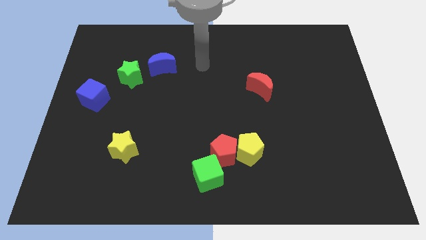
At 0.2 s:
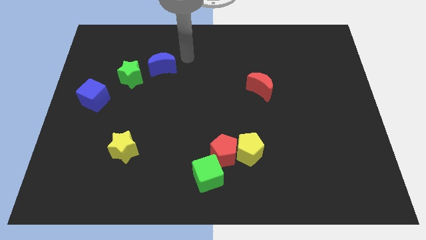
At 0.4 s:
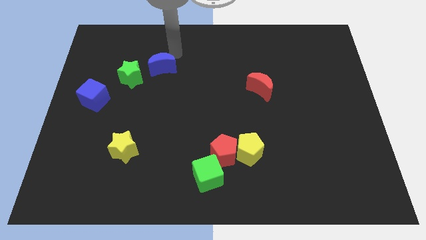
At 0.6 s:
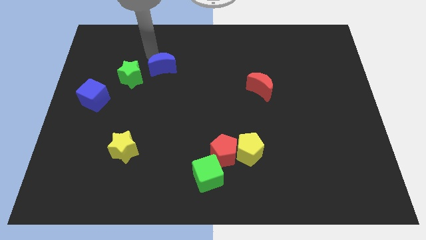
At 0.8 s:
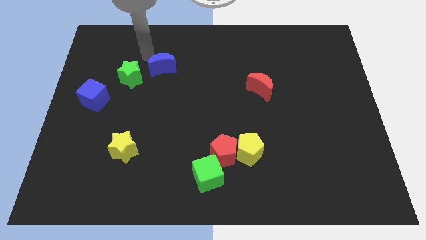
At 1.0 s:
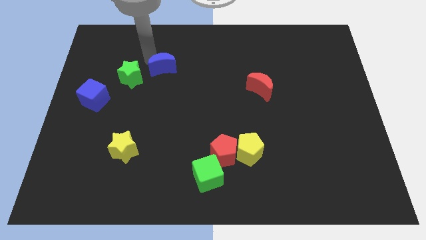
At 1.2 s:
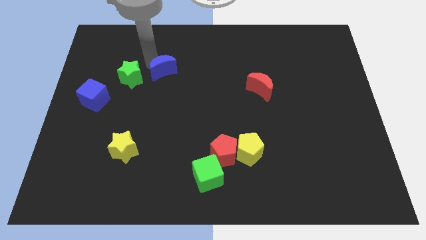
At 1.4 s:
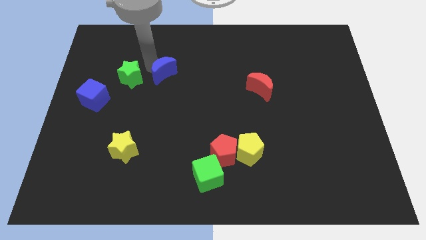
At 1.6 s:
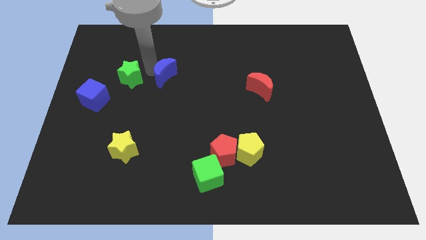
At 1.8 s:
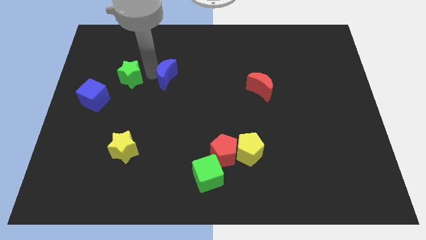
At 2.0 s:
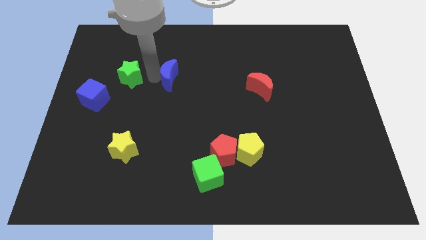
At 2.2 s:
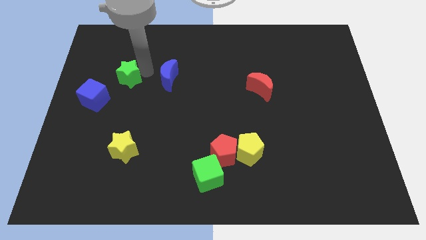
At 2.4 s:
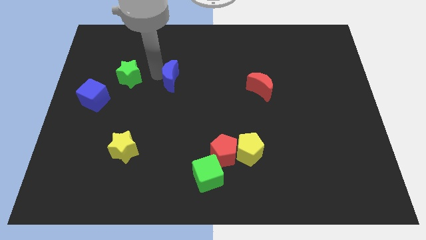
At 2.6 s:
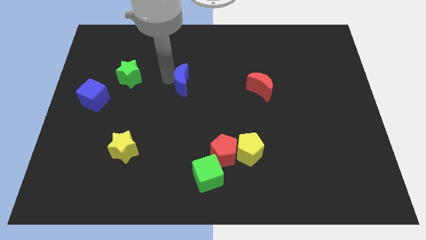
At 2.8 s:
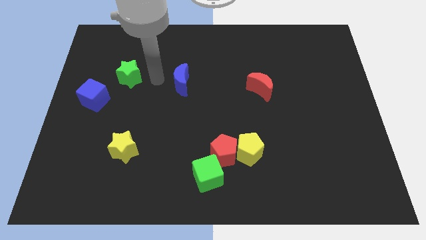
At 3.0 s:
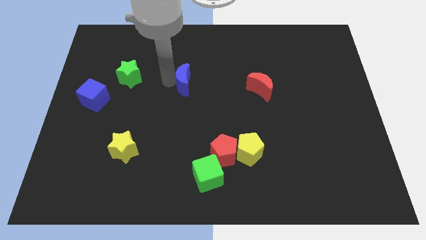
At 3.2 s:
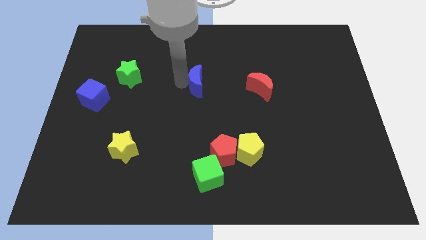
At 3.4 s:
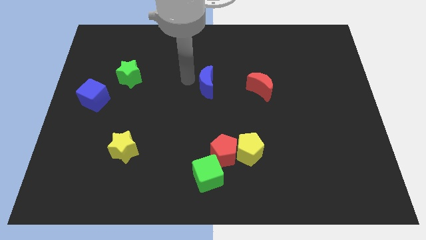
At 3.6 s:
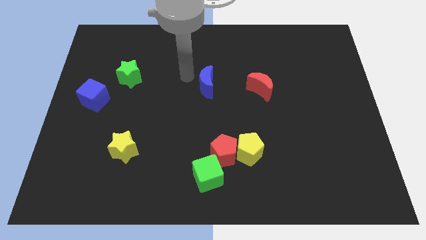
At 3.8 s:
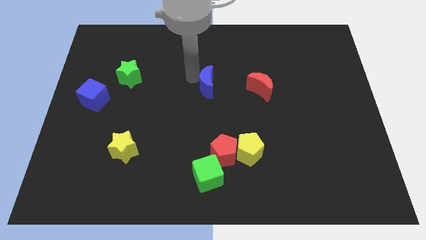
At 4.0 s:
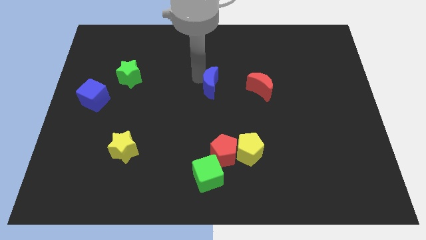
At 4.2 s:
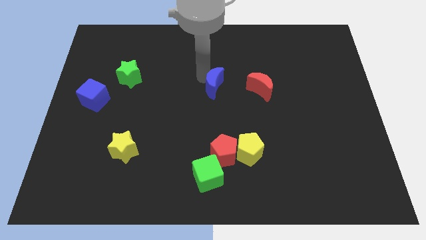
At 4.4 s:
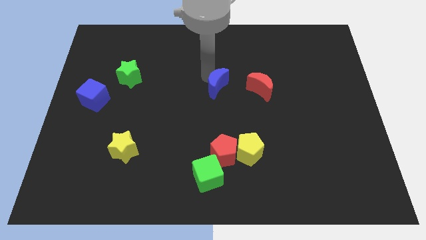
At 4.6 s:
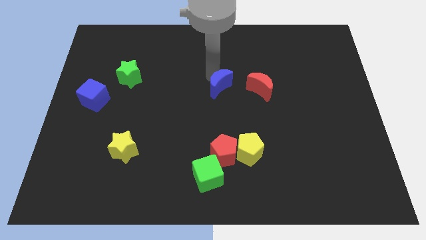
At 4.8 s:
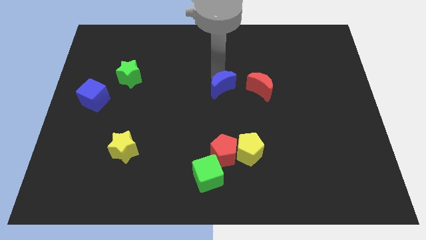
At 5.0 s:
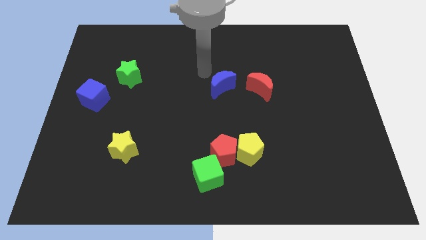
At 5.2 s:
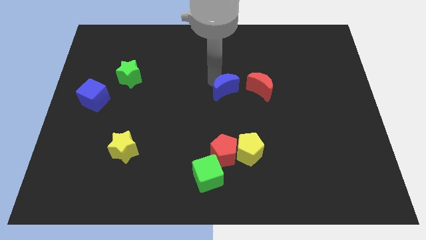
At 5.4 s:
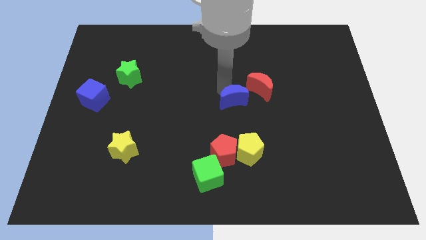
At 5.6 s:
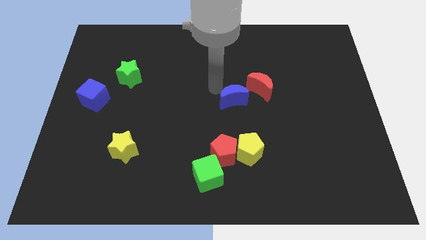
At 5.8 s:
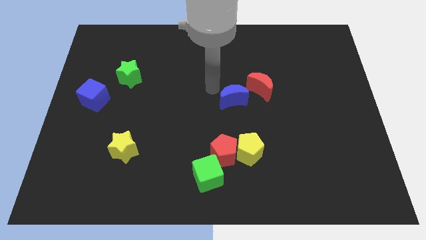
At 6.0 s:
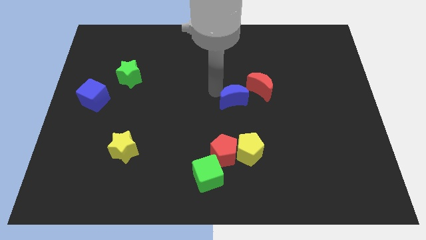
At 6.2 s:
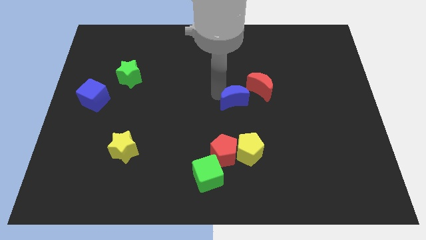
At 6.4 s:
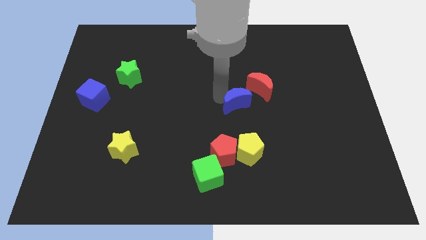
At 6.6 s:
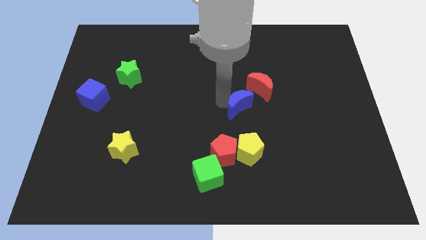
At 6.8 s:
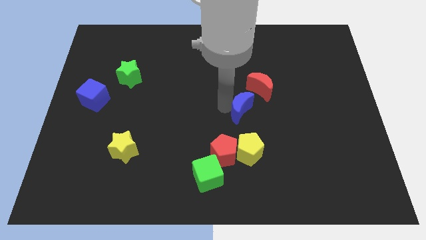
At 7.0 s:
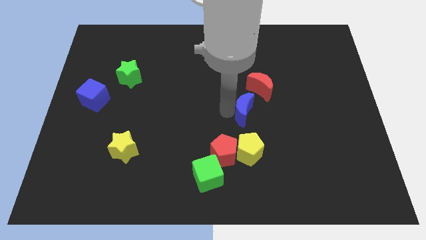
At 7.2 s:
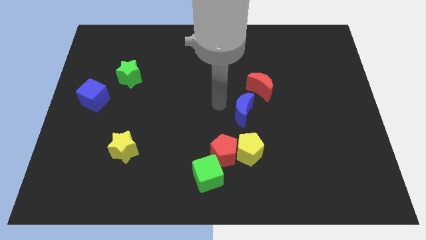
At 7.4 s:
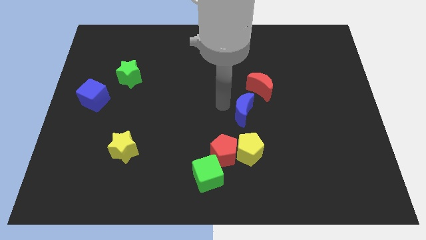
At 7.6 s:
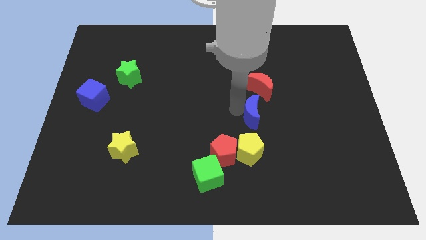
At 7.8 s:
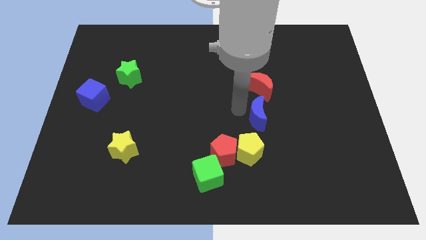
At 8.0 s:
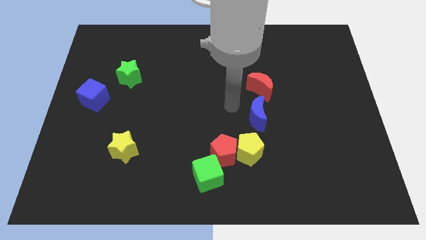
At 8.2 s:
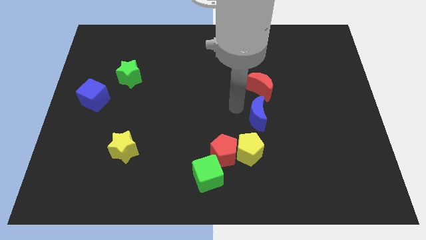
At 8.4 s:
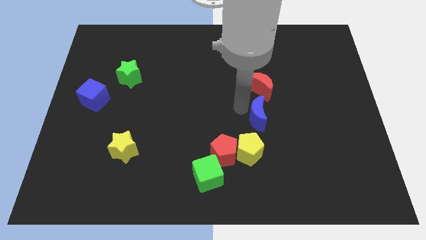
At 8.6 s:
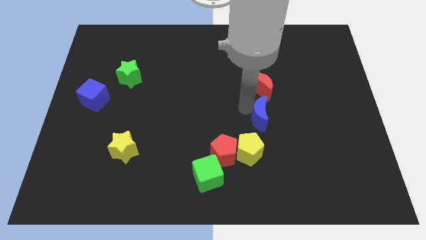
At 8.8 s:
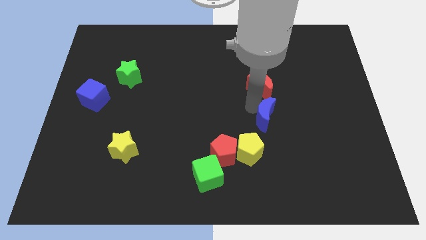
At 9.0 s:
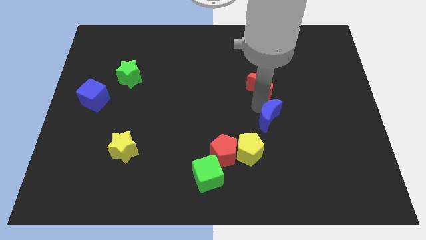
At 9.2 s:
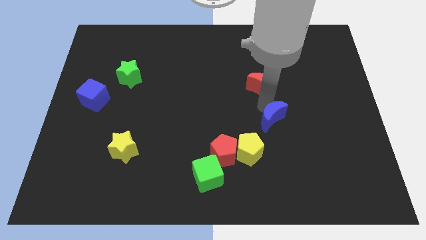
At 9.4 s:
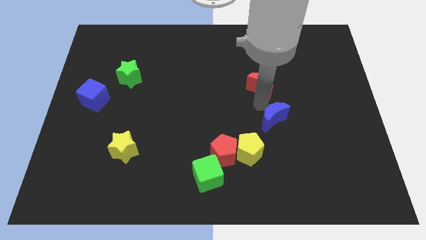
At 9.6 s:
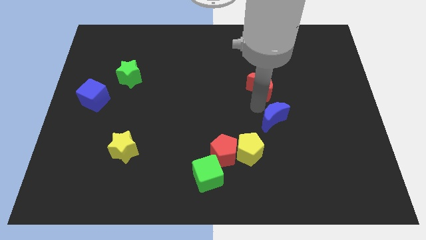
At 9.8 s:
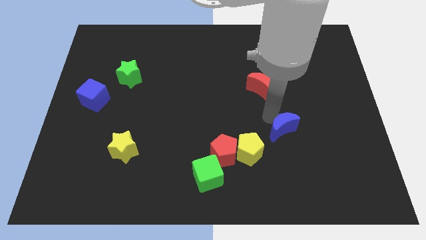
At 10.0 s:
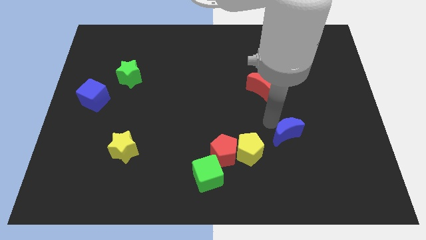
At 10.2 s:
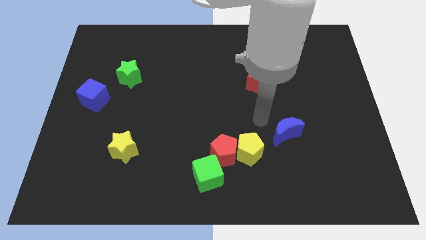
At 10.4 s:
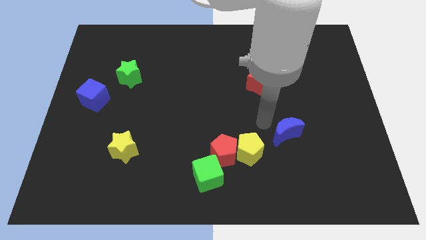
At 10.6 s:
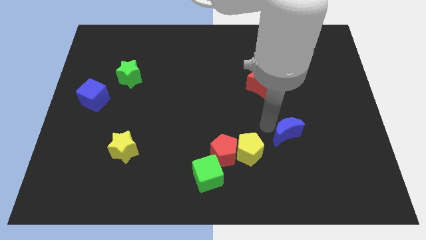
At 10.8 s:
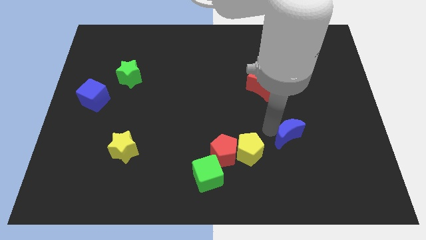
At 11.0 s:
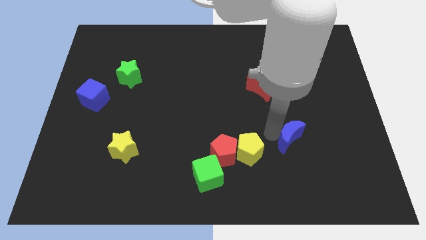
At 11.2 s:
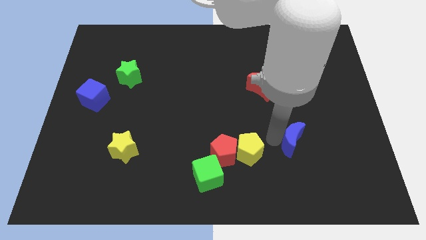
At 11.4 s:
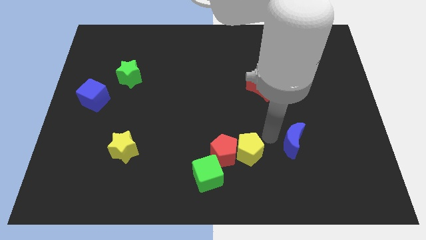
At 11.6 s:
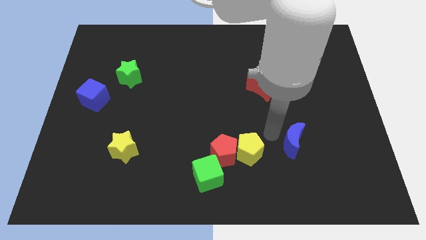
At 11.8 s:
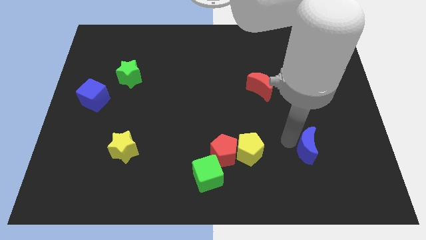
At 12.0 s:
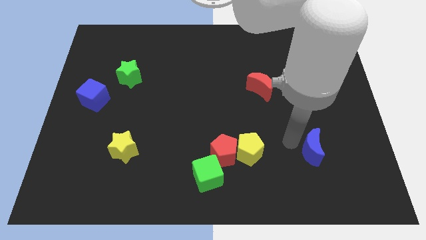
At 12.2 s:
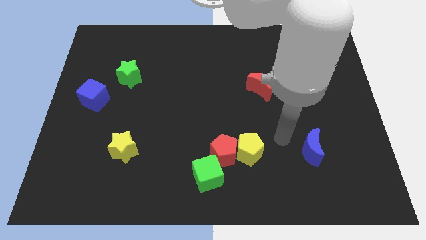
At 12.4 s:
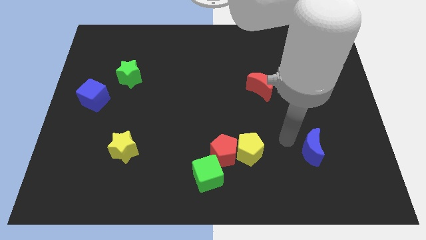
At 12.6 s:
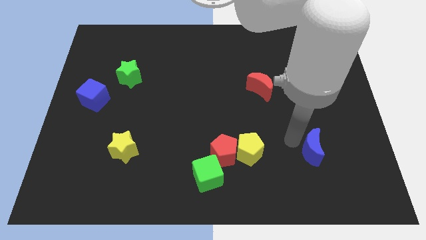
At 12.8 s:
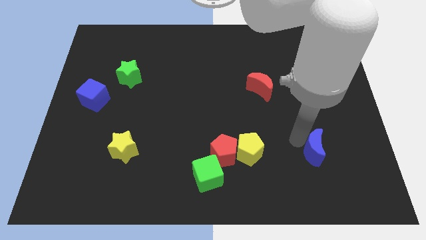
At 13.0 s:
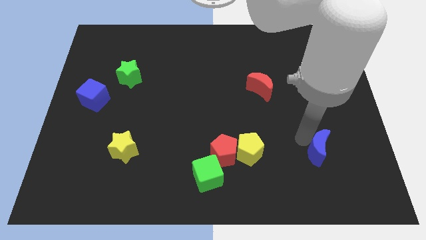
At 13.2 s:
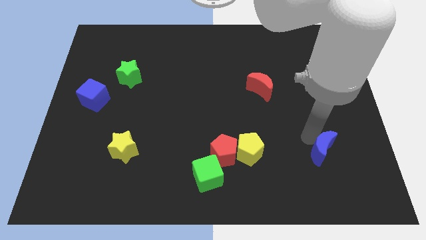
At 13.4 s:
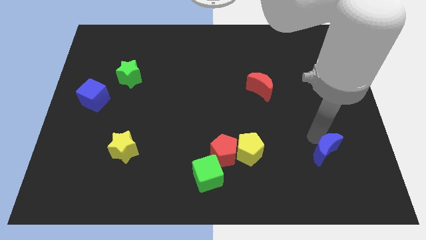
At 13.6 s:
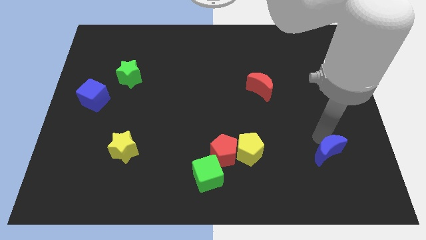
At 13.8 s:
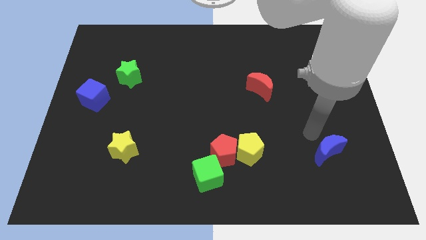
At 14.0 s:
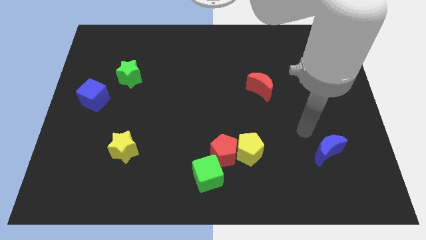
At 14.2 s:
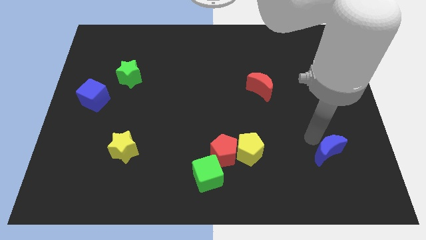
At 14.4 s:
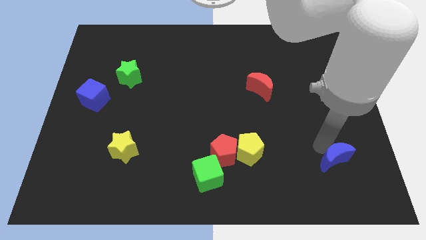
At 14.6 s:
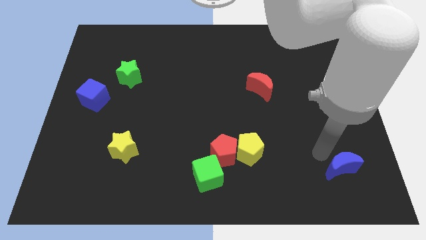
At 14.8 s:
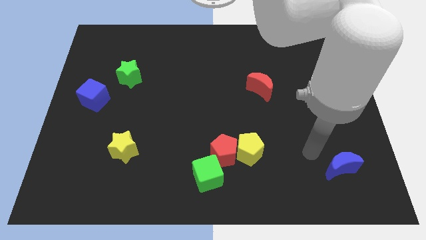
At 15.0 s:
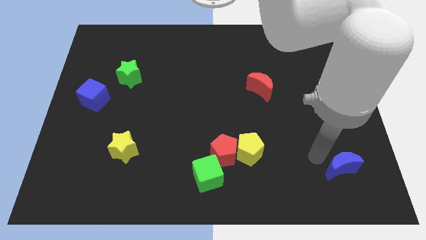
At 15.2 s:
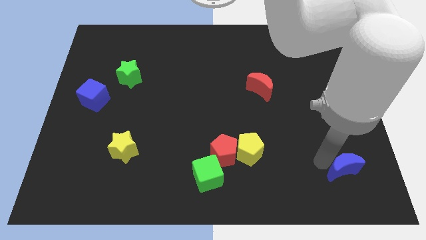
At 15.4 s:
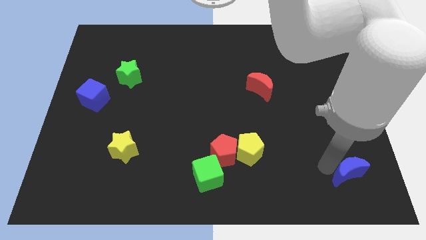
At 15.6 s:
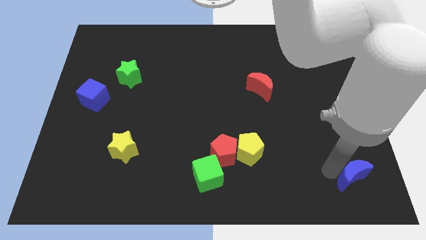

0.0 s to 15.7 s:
push the blue moon to the bottom right

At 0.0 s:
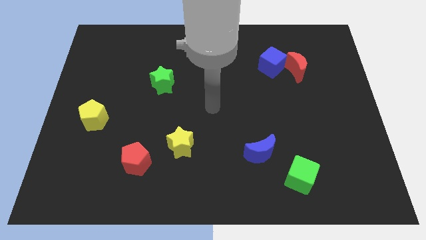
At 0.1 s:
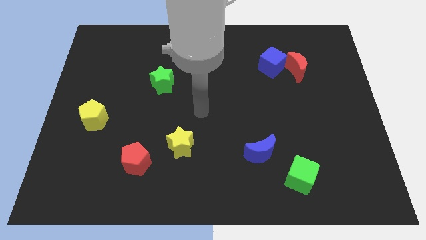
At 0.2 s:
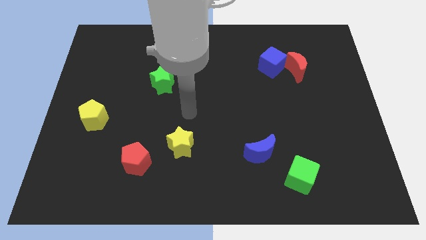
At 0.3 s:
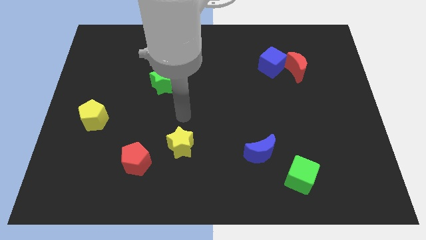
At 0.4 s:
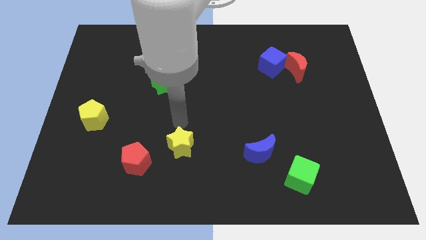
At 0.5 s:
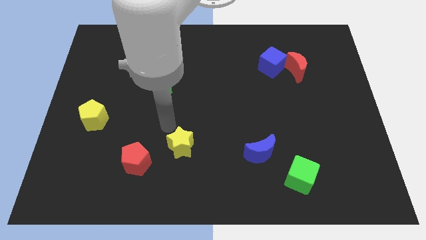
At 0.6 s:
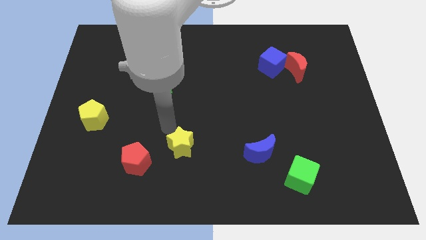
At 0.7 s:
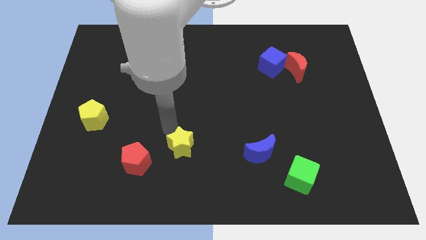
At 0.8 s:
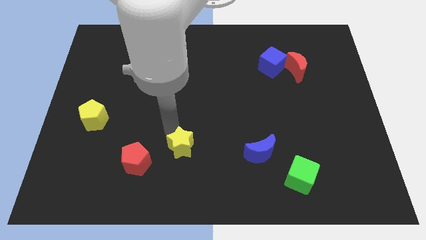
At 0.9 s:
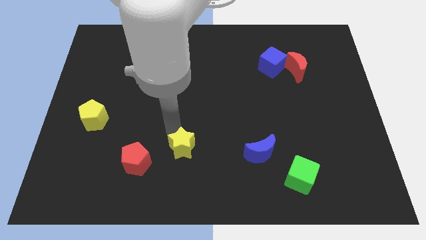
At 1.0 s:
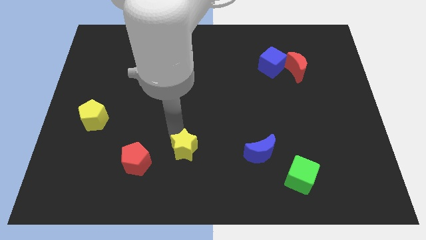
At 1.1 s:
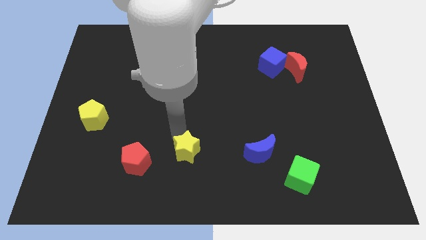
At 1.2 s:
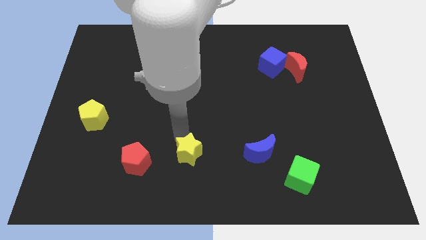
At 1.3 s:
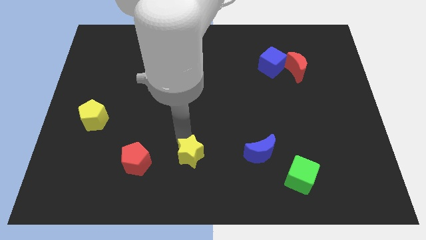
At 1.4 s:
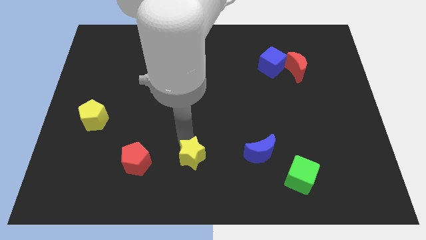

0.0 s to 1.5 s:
put the yellow star to the bottom
